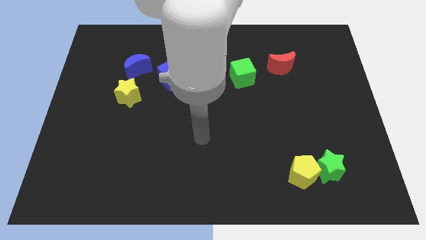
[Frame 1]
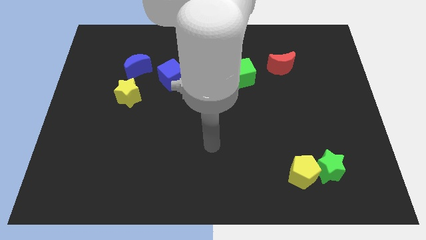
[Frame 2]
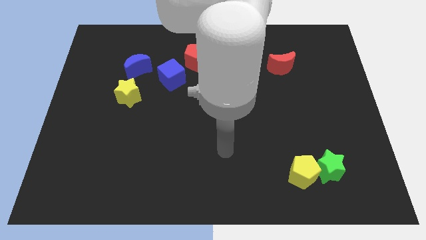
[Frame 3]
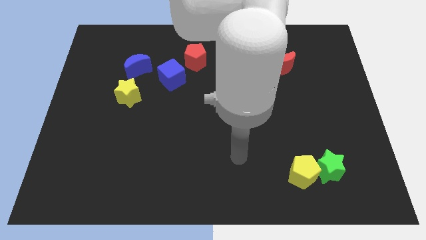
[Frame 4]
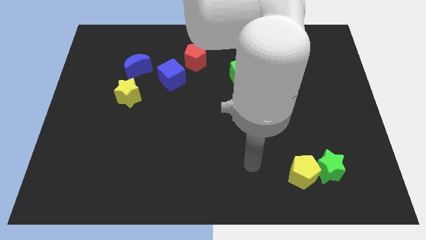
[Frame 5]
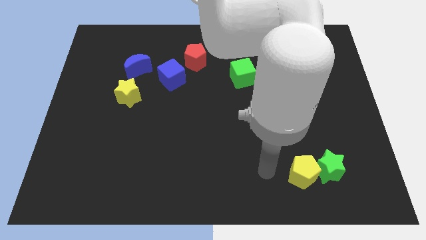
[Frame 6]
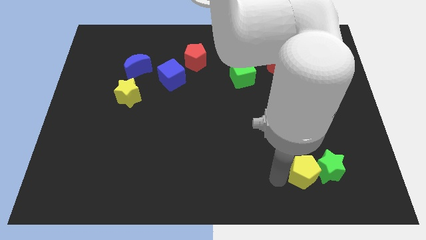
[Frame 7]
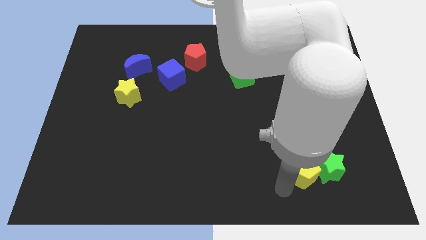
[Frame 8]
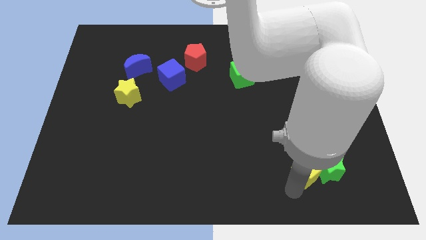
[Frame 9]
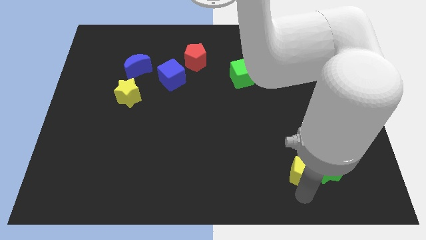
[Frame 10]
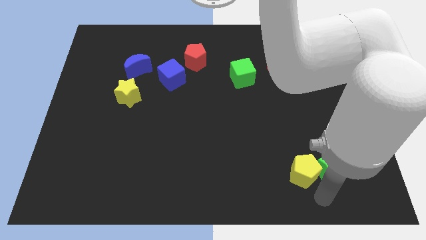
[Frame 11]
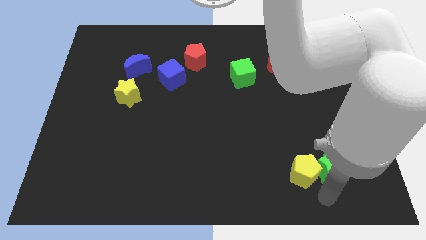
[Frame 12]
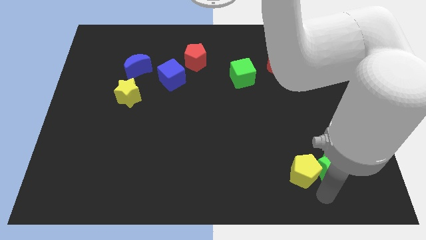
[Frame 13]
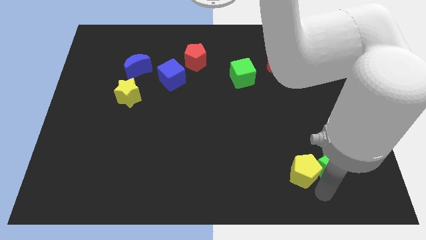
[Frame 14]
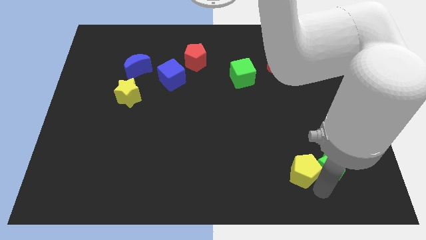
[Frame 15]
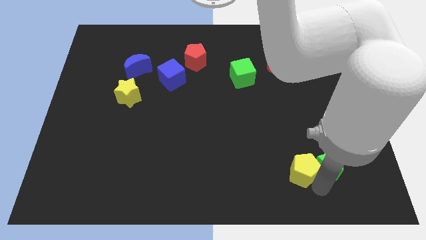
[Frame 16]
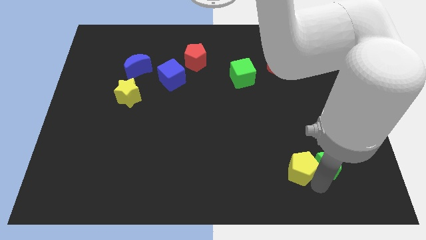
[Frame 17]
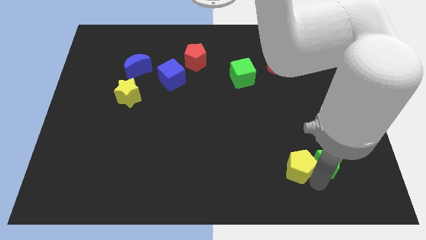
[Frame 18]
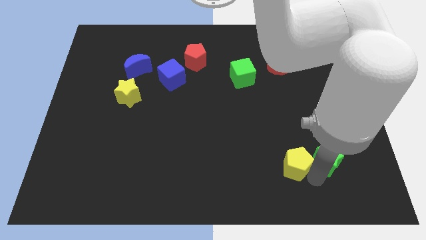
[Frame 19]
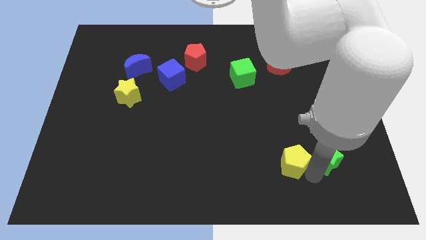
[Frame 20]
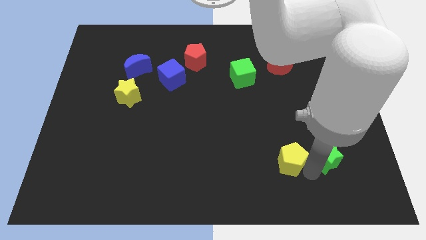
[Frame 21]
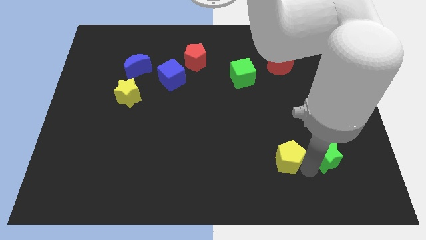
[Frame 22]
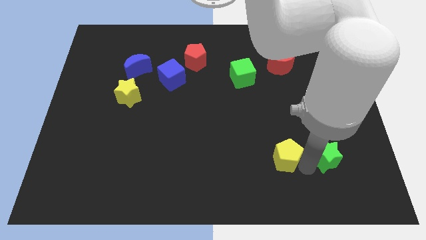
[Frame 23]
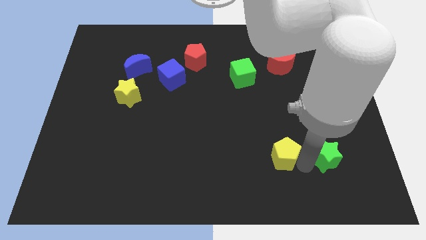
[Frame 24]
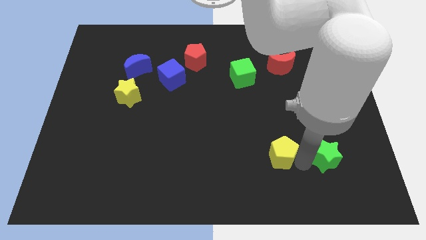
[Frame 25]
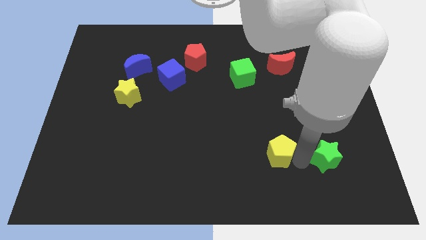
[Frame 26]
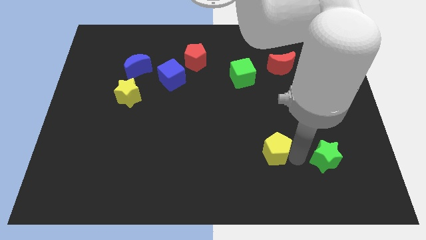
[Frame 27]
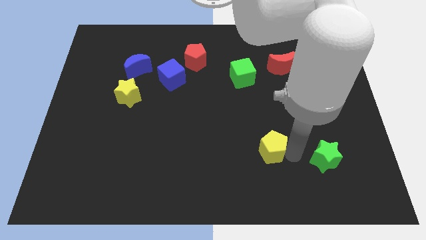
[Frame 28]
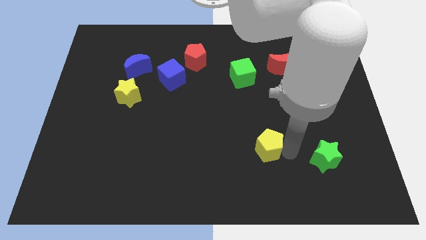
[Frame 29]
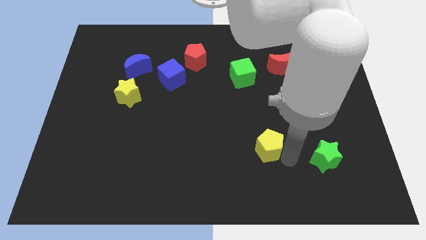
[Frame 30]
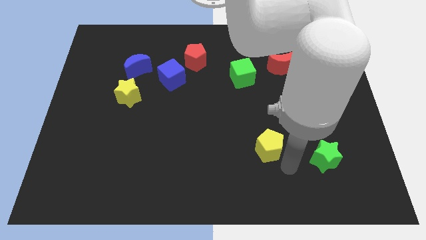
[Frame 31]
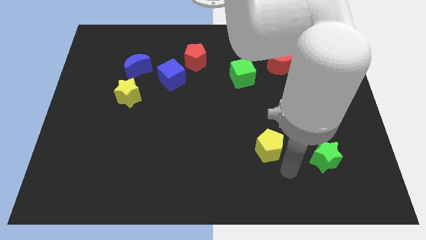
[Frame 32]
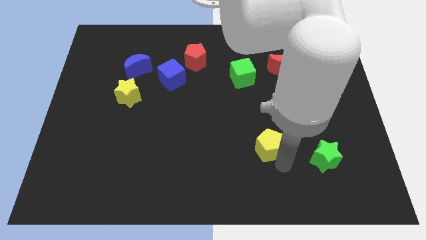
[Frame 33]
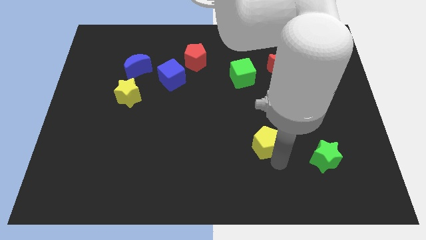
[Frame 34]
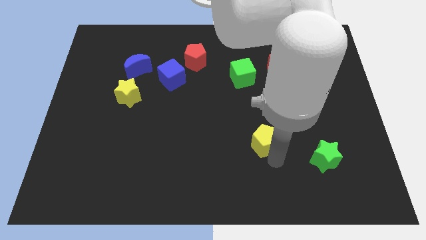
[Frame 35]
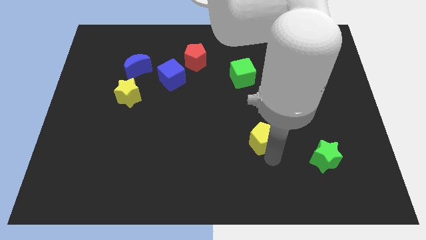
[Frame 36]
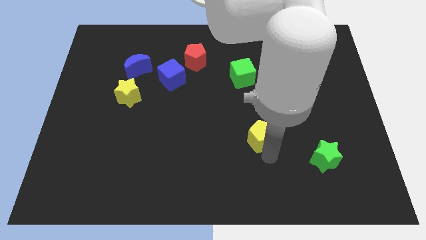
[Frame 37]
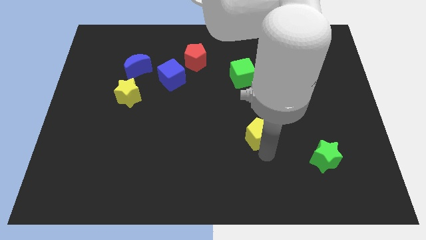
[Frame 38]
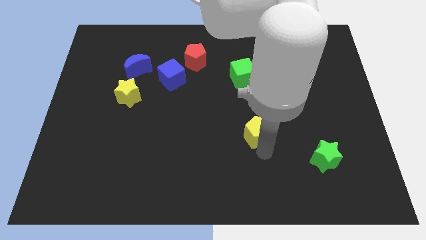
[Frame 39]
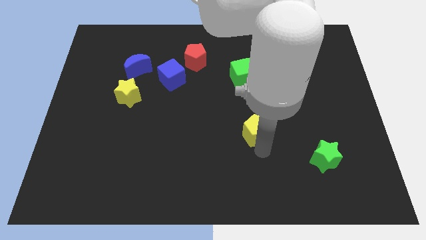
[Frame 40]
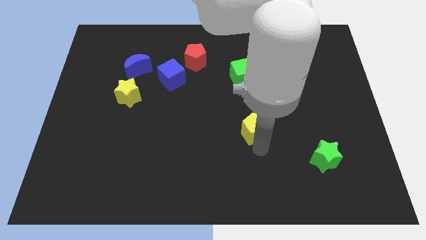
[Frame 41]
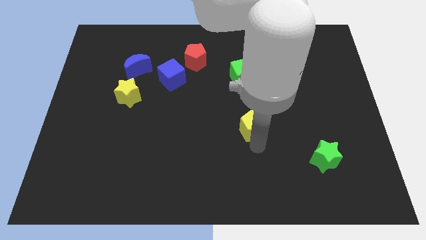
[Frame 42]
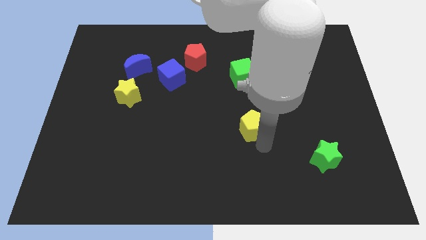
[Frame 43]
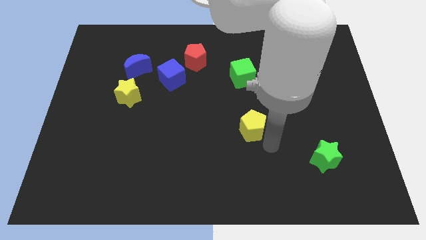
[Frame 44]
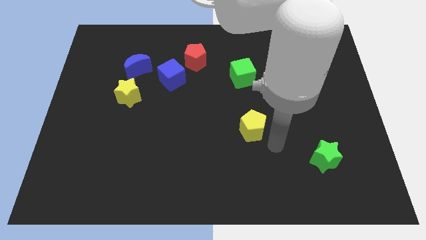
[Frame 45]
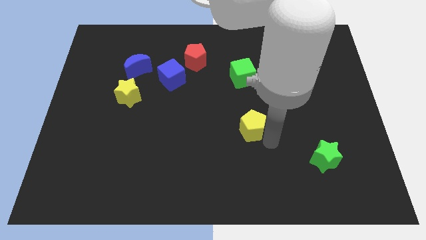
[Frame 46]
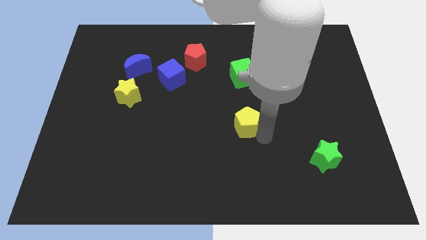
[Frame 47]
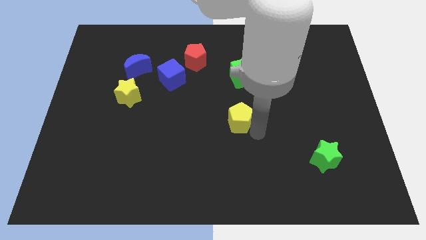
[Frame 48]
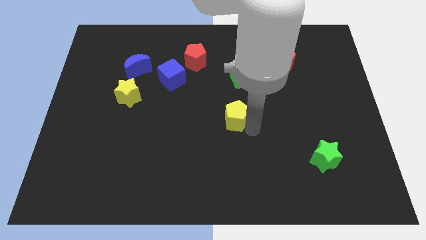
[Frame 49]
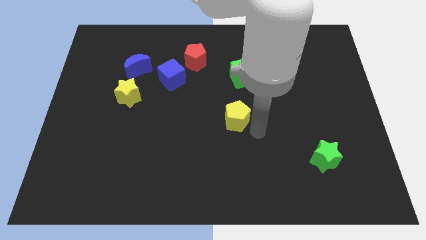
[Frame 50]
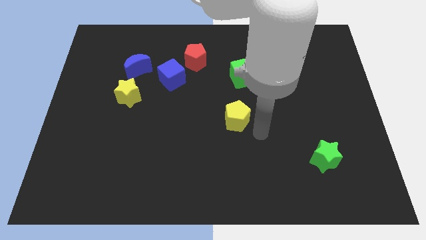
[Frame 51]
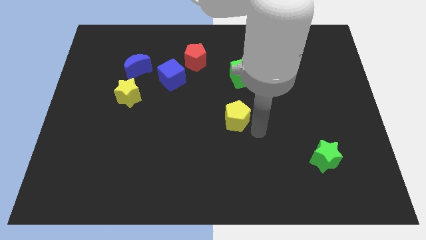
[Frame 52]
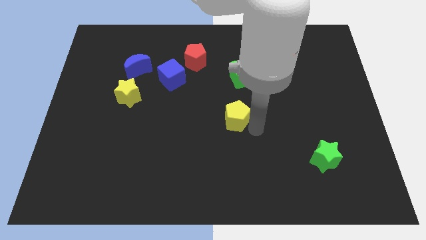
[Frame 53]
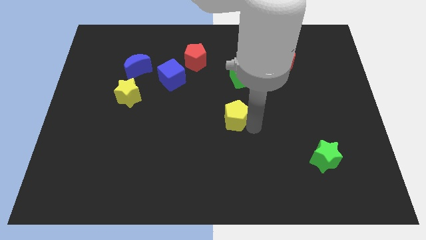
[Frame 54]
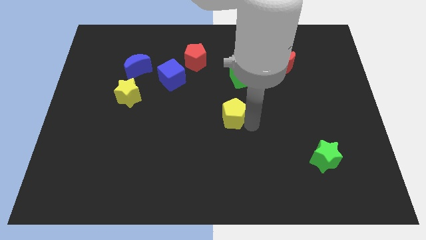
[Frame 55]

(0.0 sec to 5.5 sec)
push the yellow pentagon up and then to the left

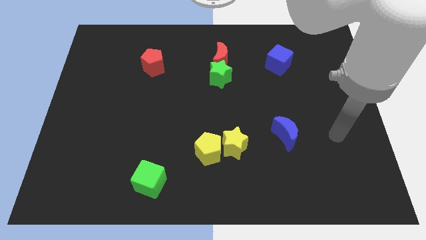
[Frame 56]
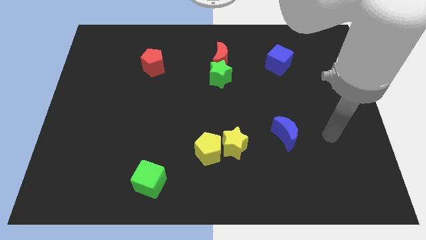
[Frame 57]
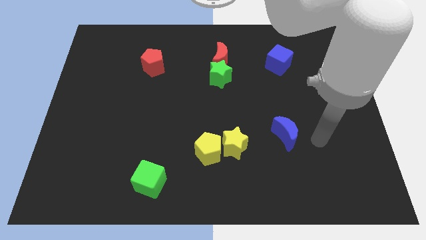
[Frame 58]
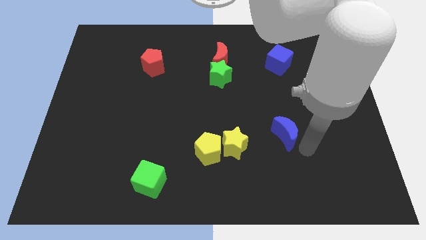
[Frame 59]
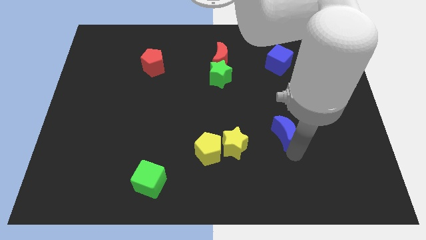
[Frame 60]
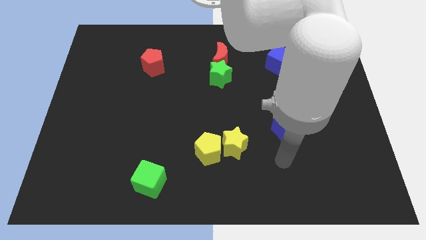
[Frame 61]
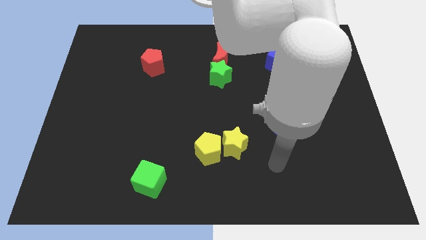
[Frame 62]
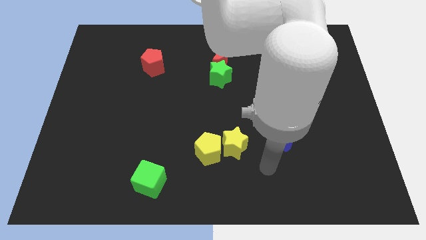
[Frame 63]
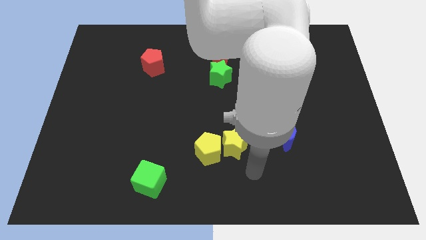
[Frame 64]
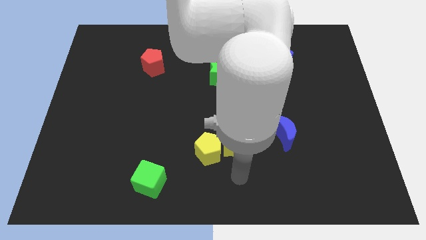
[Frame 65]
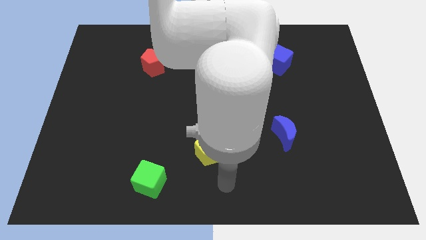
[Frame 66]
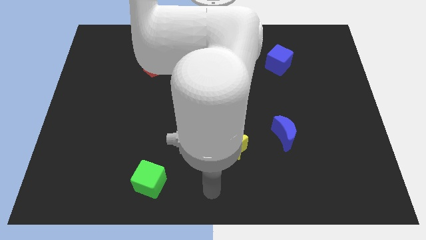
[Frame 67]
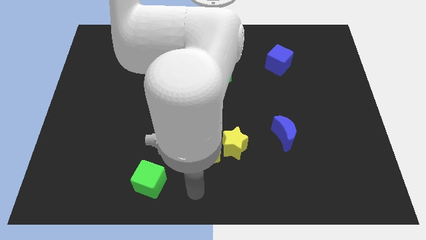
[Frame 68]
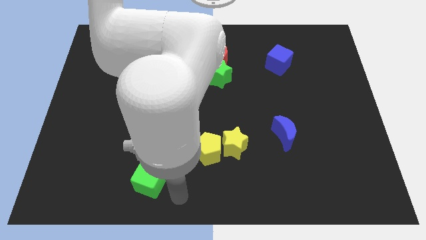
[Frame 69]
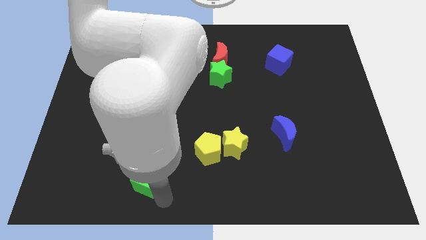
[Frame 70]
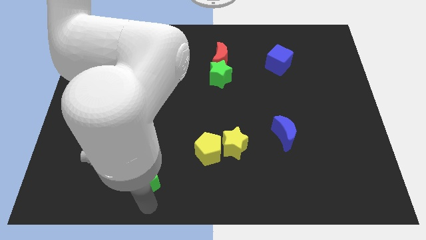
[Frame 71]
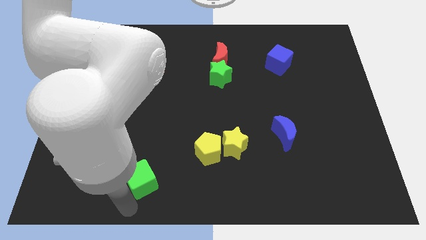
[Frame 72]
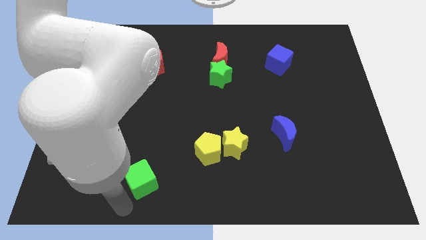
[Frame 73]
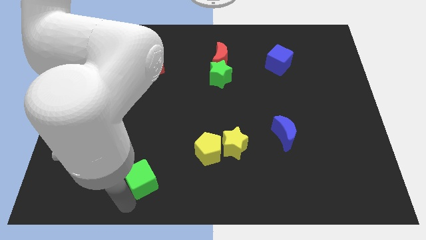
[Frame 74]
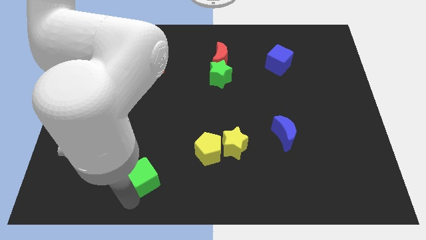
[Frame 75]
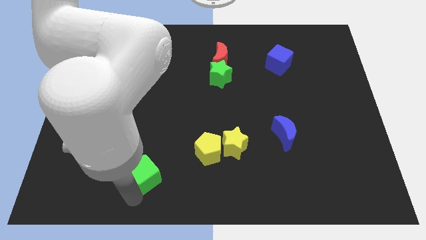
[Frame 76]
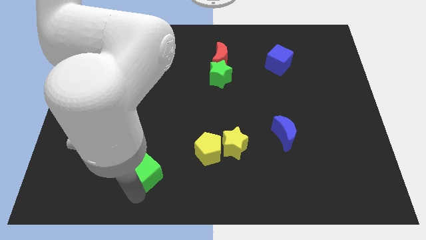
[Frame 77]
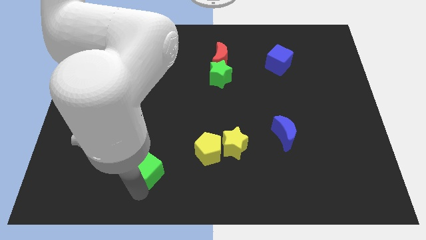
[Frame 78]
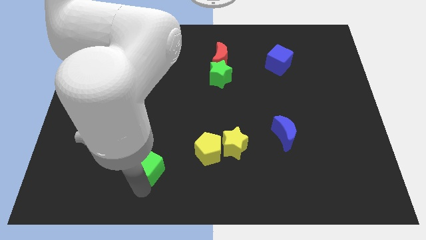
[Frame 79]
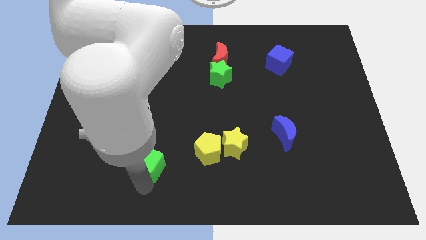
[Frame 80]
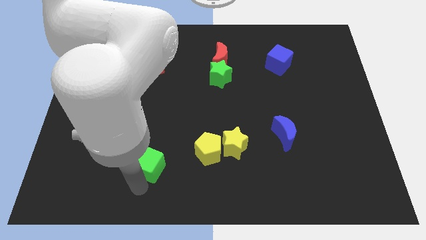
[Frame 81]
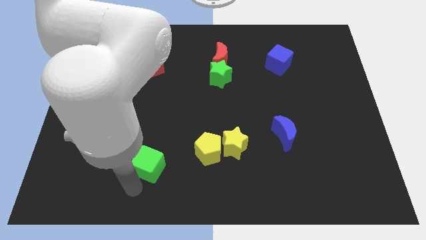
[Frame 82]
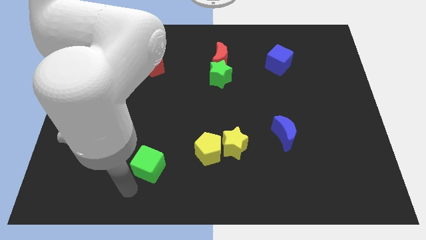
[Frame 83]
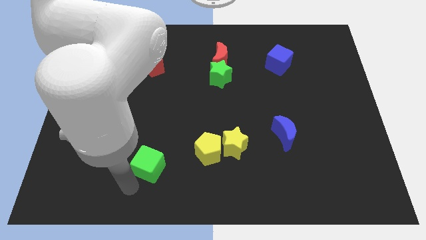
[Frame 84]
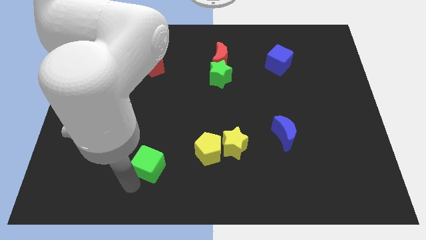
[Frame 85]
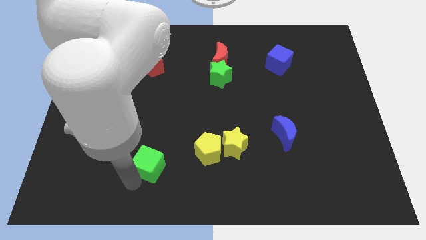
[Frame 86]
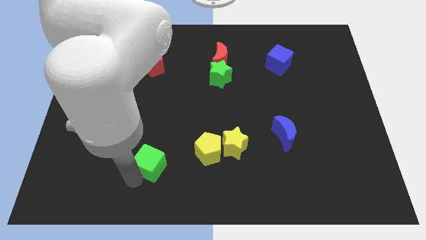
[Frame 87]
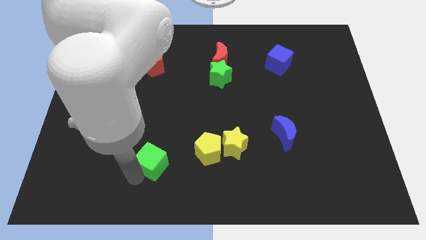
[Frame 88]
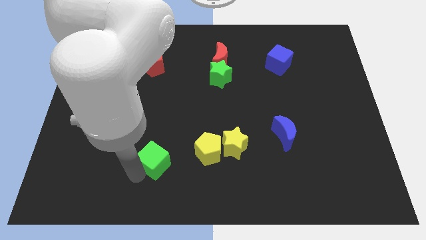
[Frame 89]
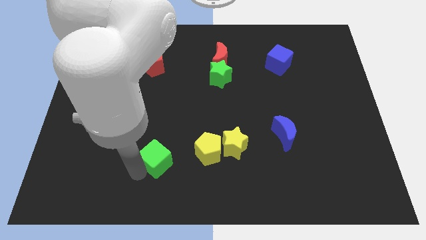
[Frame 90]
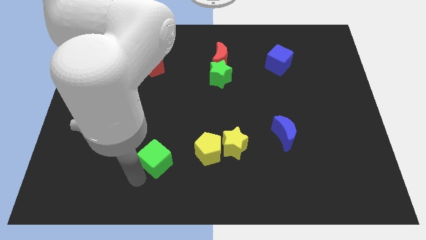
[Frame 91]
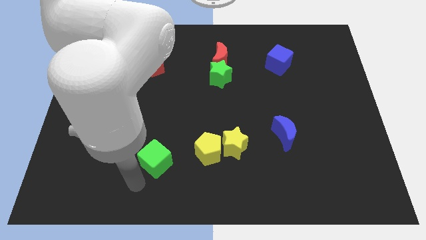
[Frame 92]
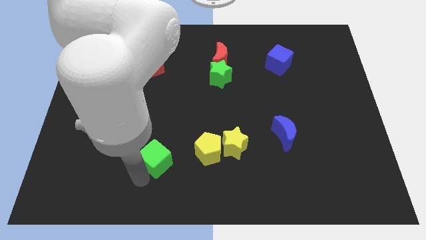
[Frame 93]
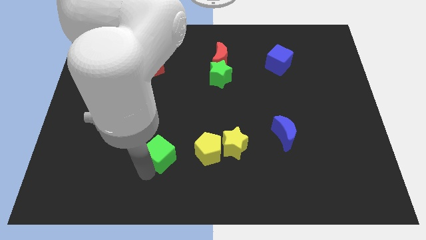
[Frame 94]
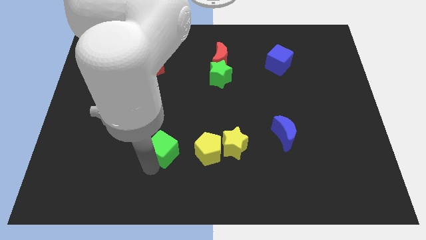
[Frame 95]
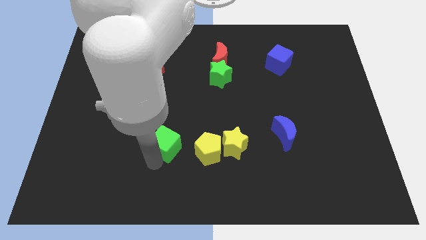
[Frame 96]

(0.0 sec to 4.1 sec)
slide the green cube diagonally upwards and to the right a little bit
